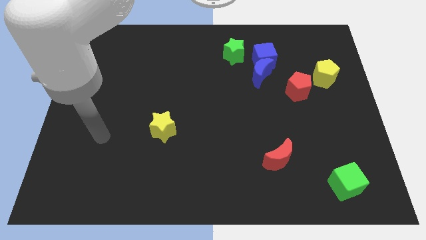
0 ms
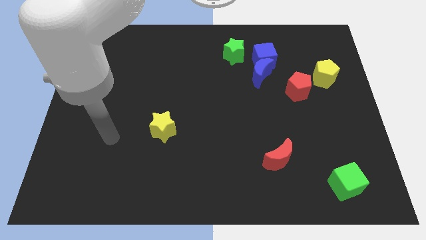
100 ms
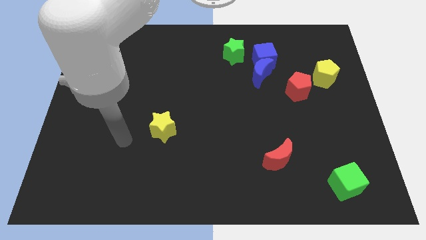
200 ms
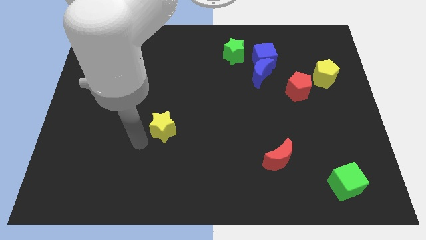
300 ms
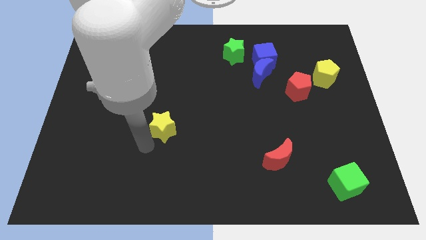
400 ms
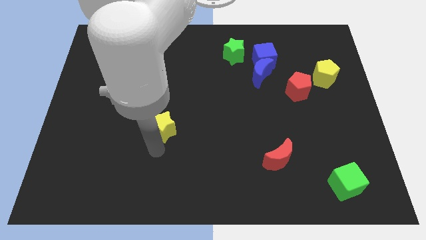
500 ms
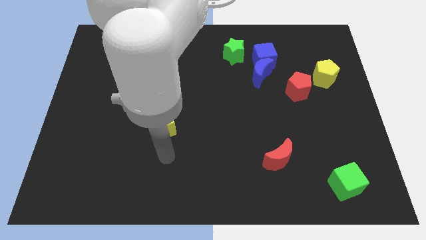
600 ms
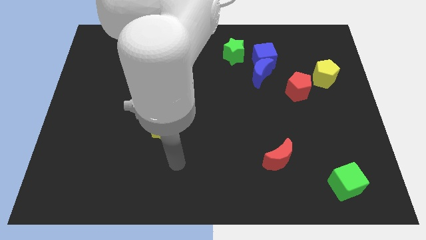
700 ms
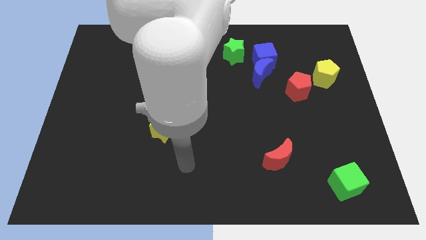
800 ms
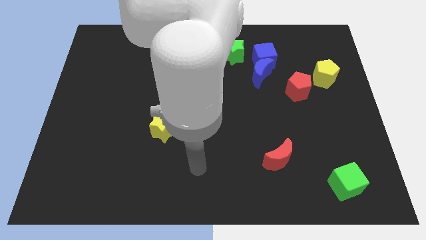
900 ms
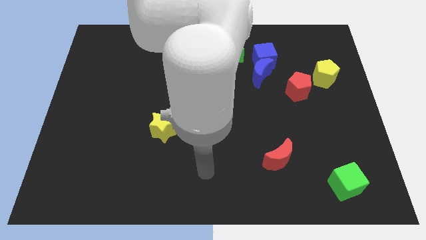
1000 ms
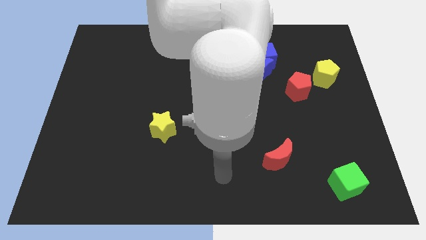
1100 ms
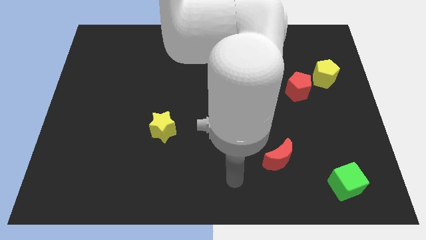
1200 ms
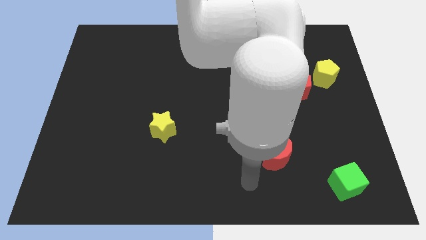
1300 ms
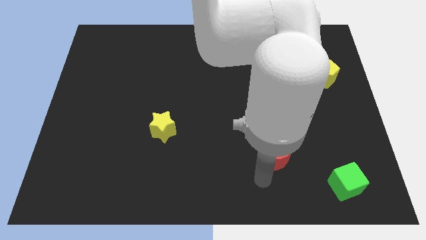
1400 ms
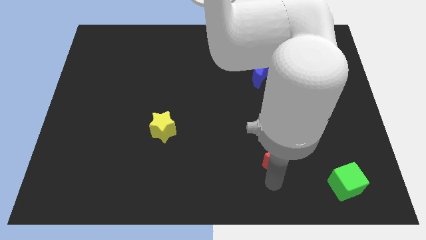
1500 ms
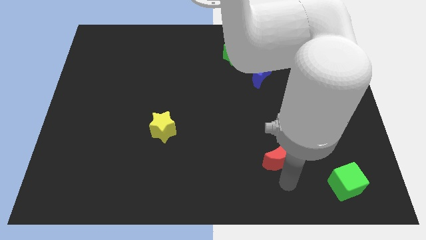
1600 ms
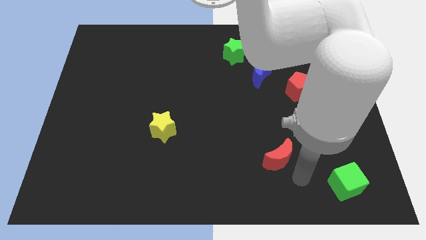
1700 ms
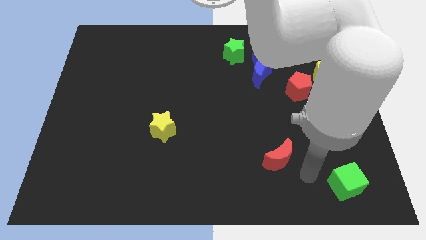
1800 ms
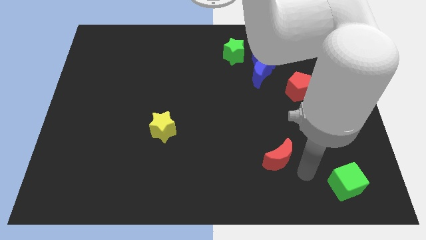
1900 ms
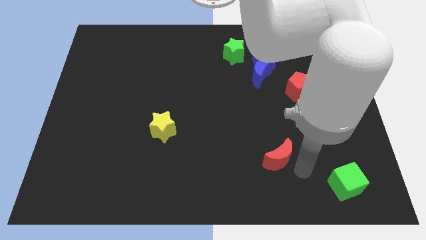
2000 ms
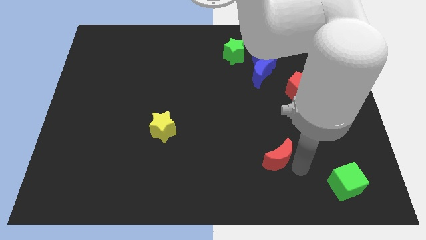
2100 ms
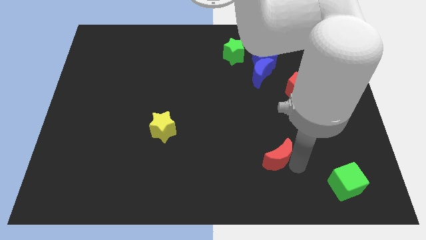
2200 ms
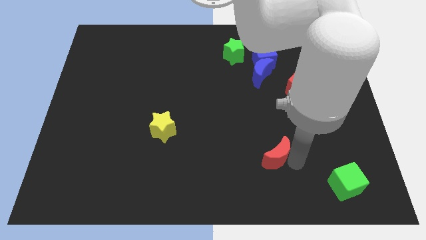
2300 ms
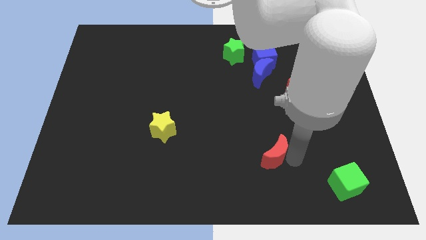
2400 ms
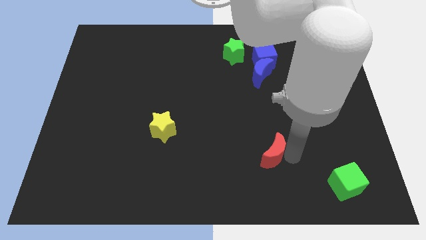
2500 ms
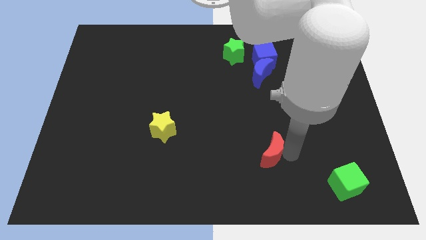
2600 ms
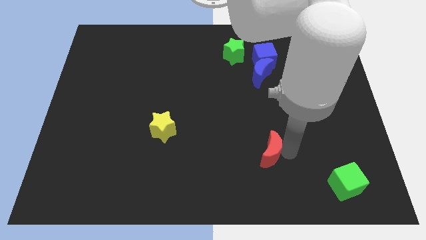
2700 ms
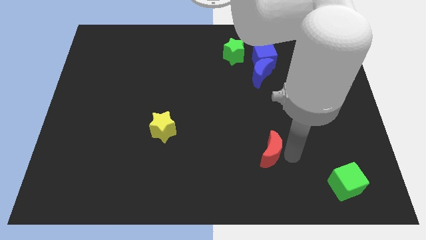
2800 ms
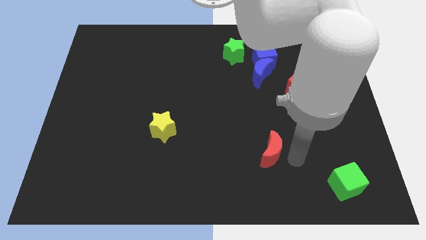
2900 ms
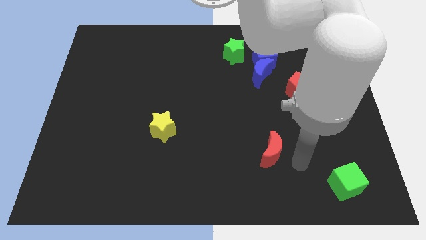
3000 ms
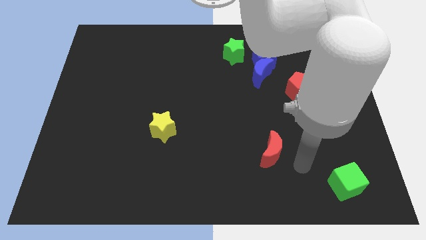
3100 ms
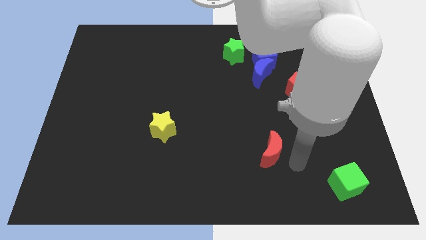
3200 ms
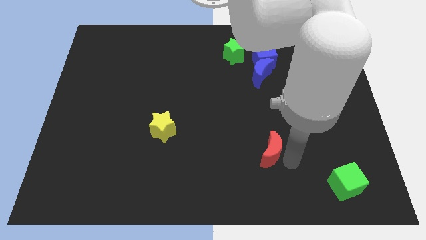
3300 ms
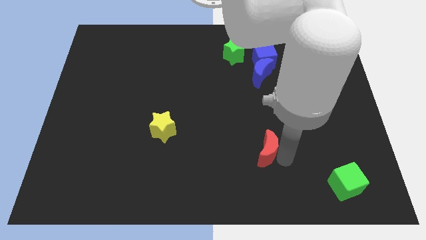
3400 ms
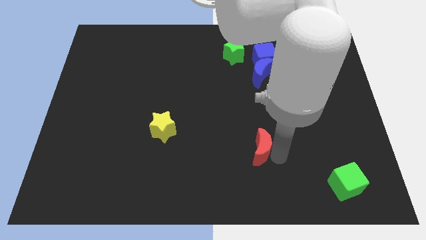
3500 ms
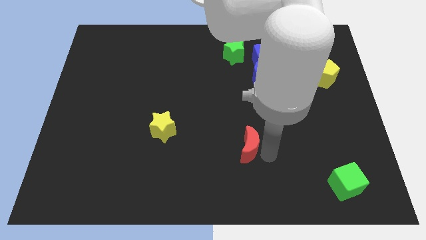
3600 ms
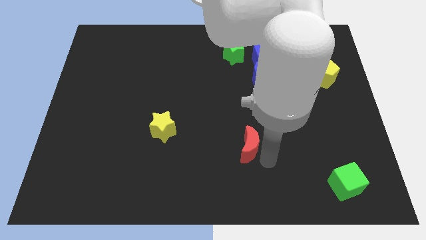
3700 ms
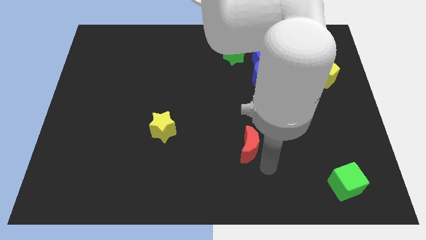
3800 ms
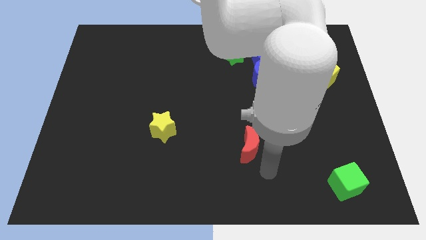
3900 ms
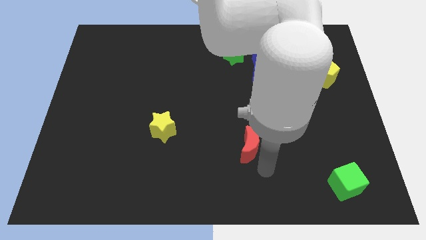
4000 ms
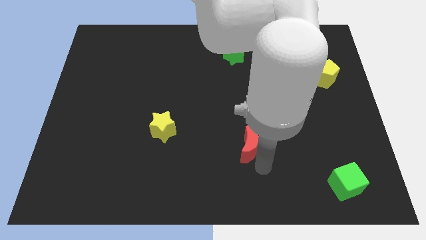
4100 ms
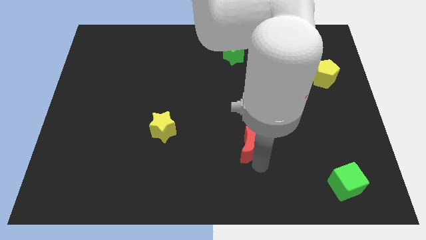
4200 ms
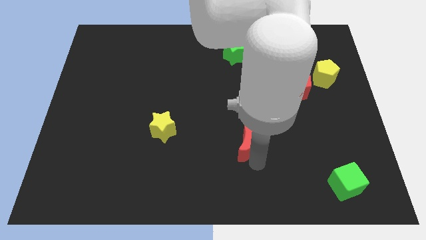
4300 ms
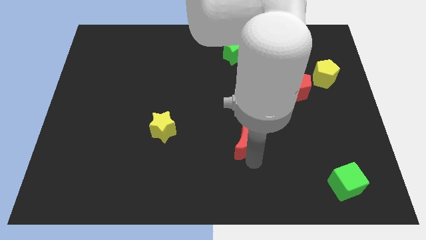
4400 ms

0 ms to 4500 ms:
slightly slide the red moon up and then to the left

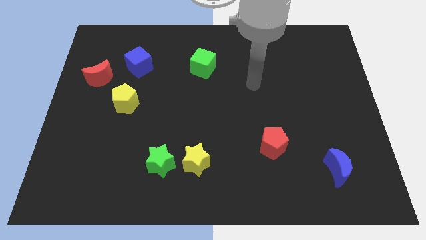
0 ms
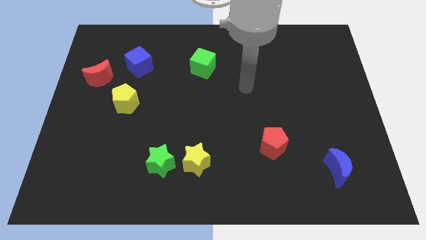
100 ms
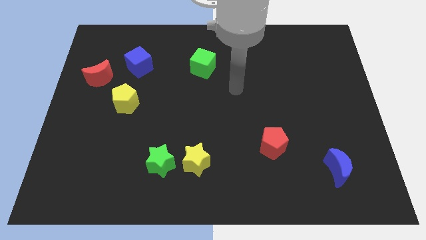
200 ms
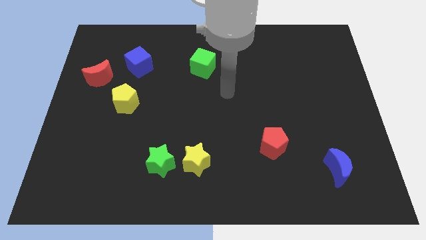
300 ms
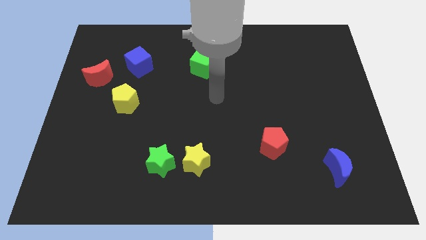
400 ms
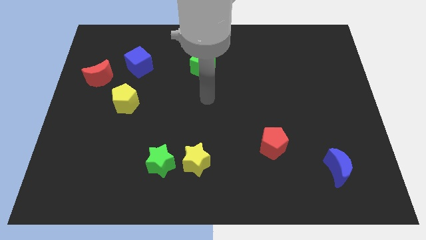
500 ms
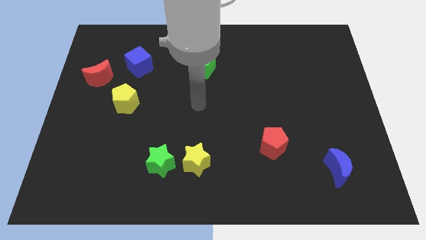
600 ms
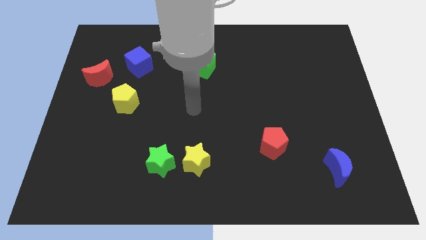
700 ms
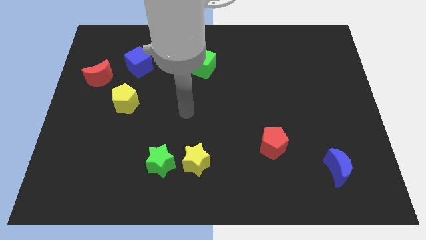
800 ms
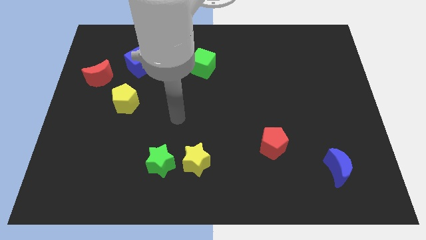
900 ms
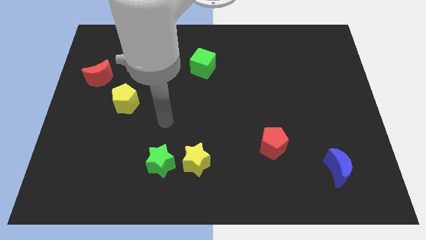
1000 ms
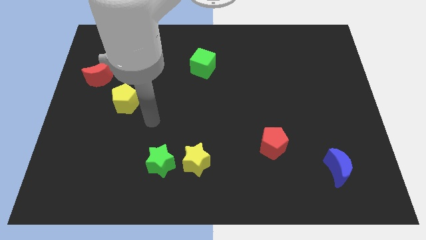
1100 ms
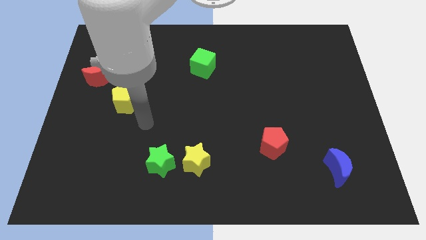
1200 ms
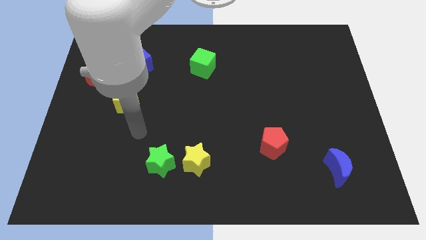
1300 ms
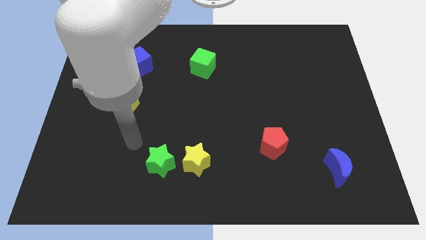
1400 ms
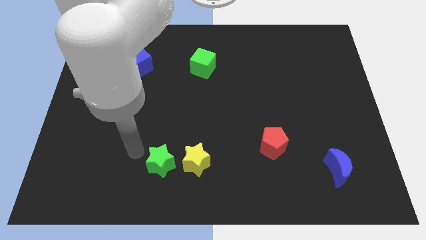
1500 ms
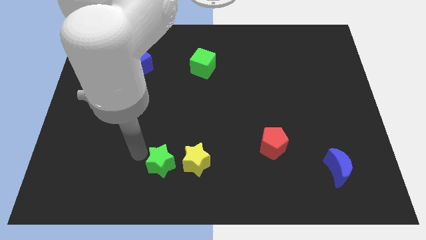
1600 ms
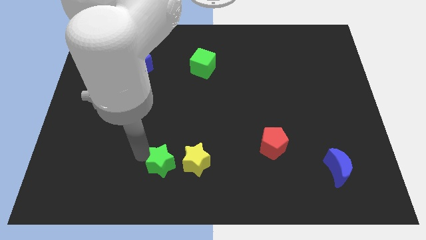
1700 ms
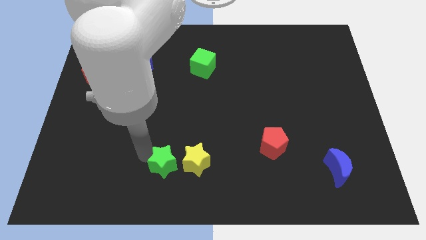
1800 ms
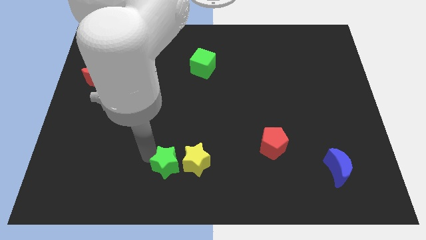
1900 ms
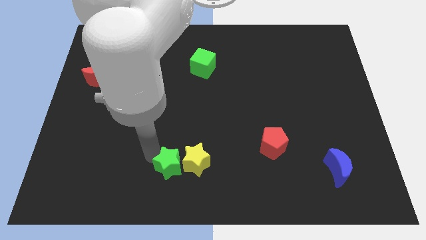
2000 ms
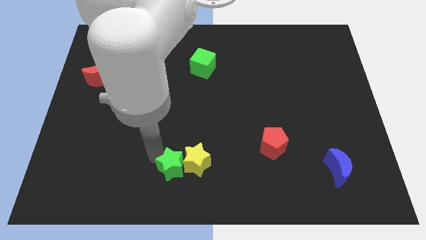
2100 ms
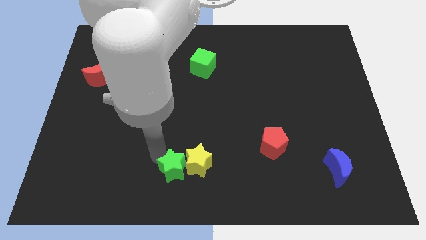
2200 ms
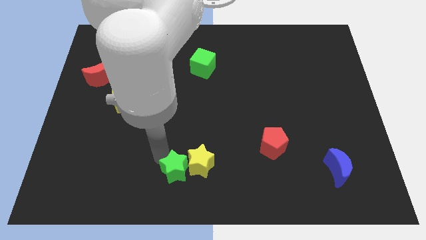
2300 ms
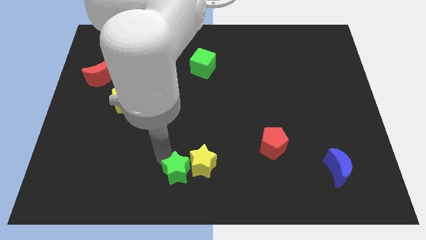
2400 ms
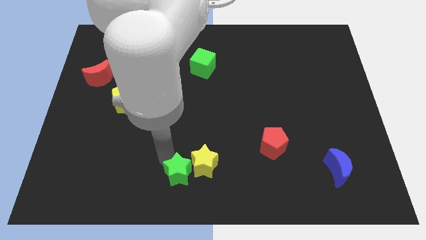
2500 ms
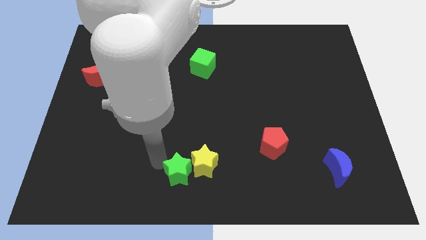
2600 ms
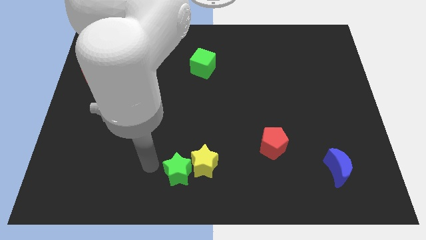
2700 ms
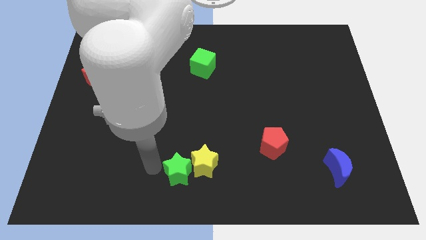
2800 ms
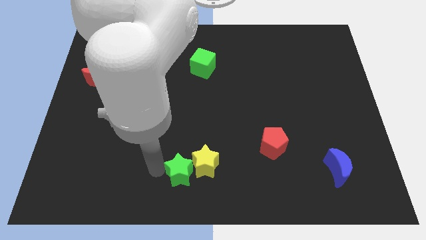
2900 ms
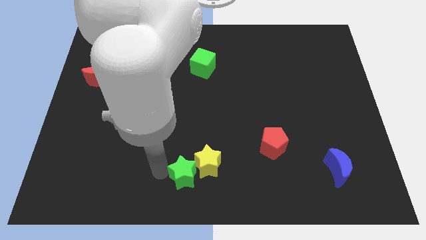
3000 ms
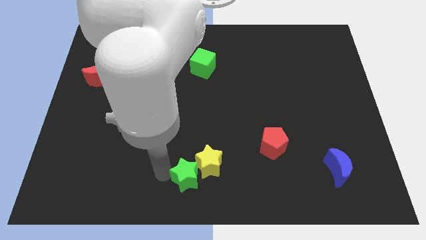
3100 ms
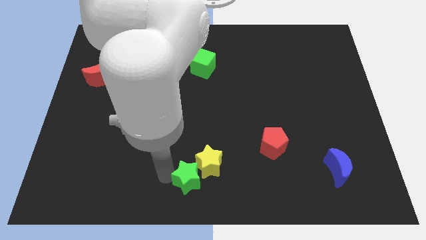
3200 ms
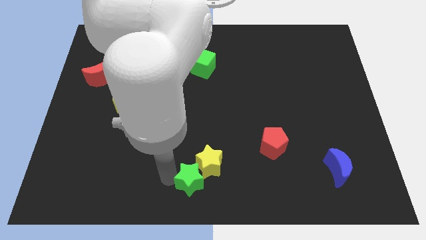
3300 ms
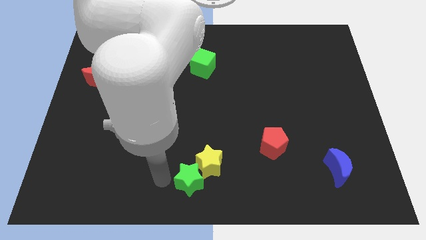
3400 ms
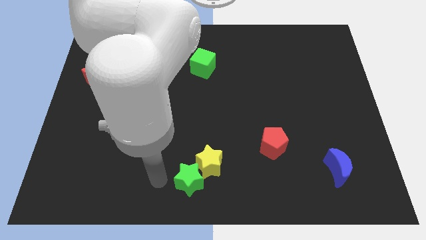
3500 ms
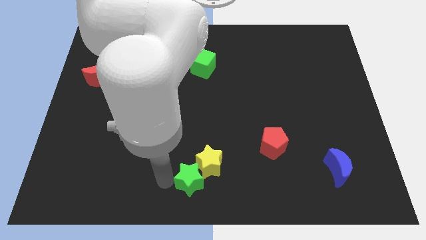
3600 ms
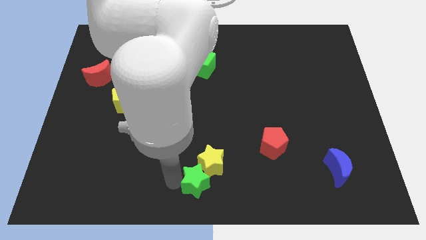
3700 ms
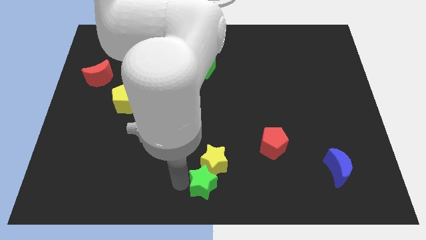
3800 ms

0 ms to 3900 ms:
move the green star a little to the right
